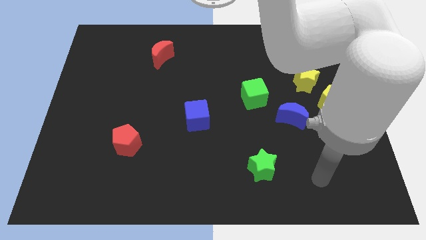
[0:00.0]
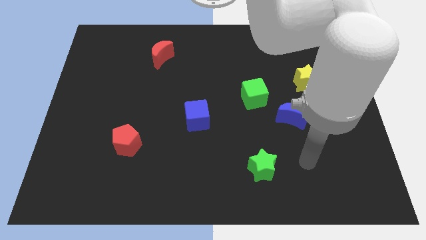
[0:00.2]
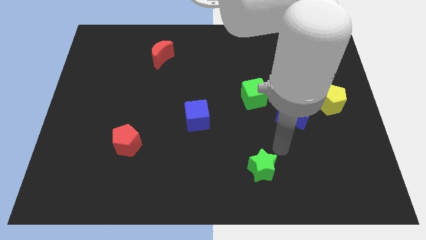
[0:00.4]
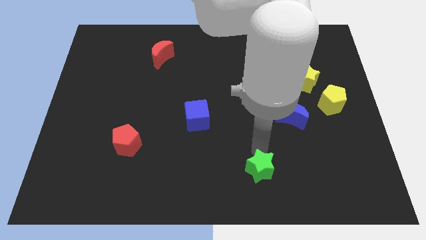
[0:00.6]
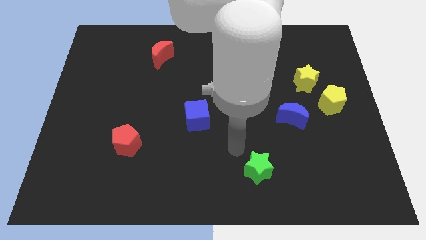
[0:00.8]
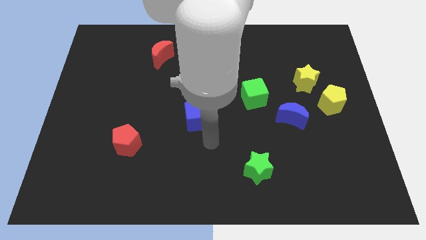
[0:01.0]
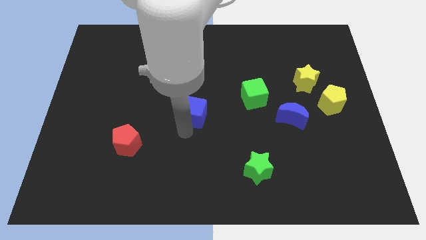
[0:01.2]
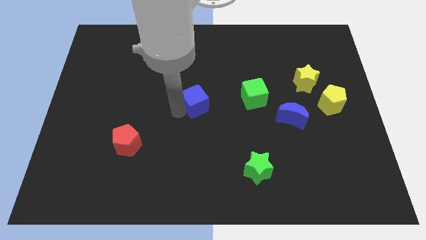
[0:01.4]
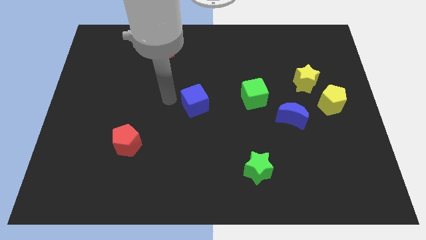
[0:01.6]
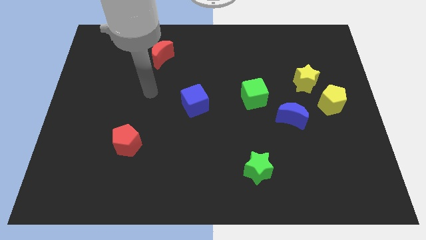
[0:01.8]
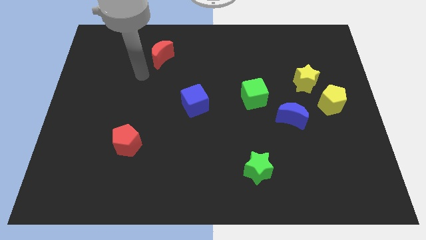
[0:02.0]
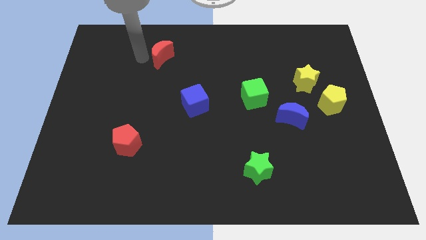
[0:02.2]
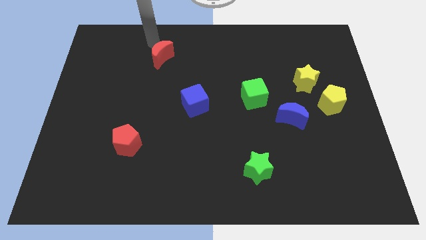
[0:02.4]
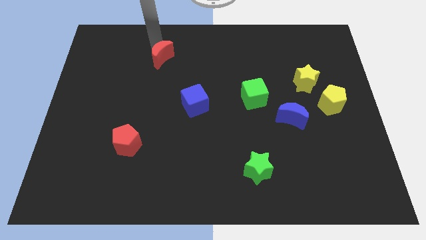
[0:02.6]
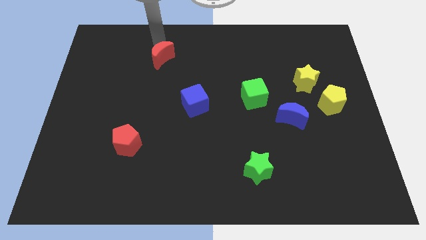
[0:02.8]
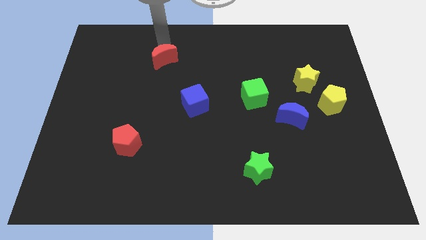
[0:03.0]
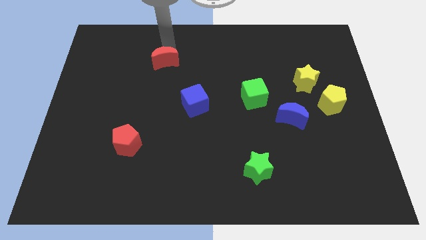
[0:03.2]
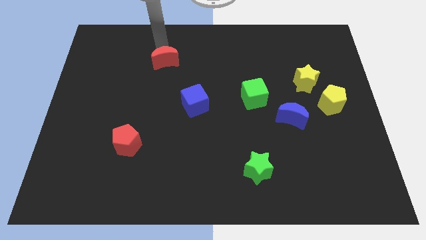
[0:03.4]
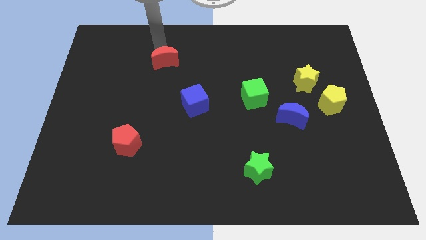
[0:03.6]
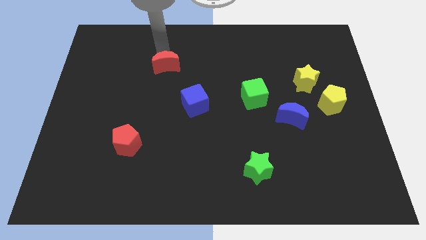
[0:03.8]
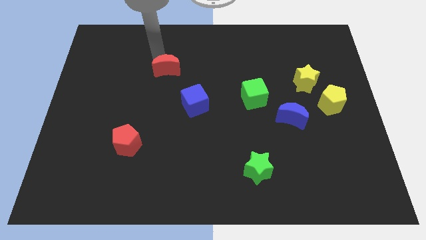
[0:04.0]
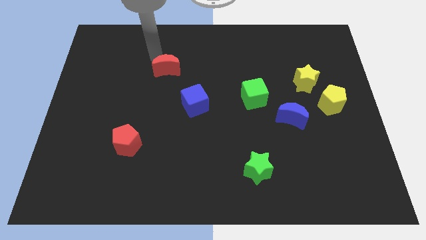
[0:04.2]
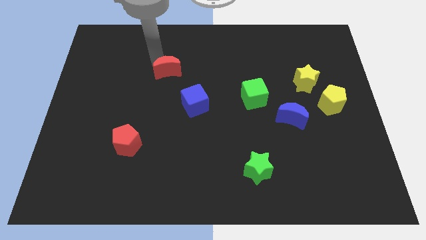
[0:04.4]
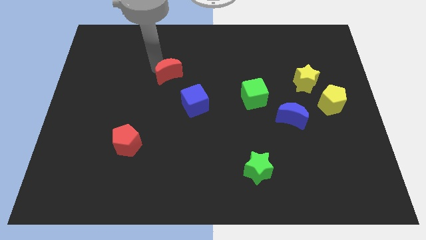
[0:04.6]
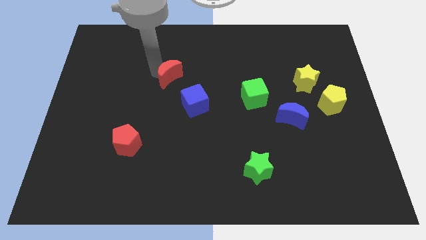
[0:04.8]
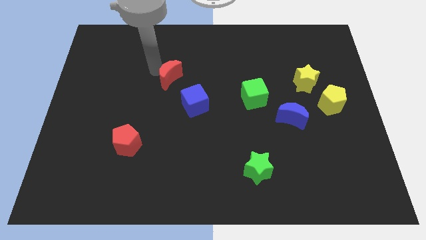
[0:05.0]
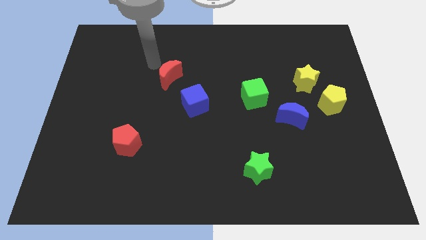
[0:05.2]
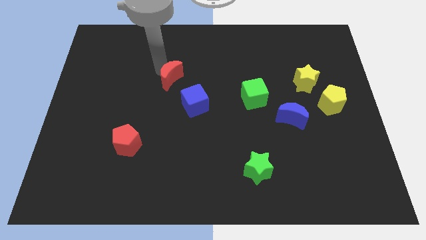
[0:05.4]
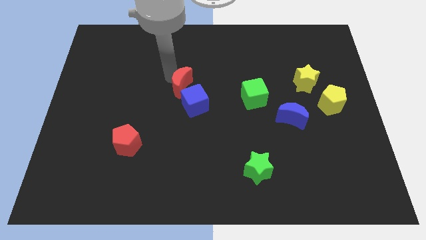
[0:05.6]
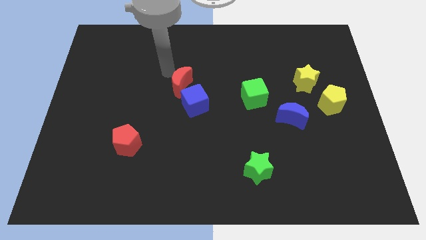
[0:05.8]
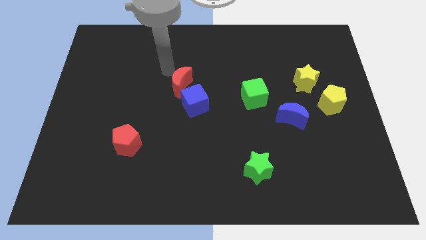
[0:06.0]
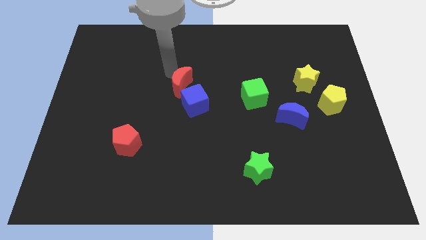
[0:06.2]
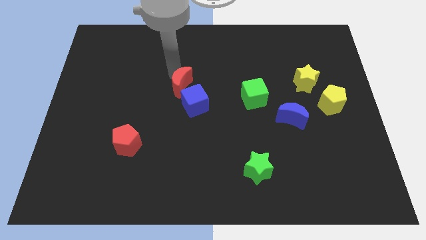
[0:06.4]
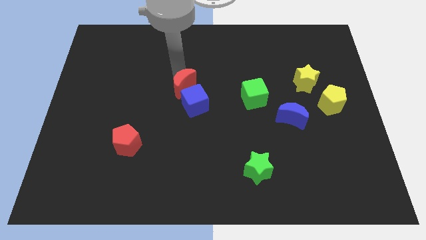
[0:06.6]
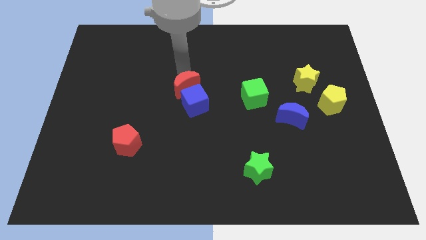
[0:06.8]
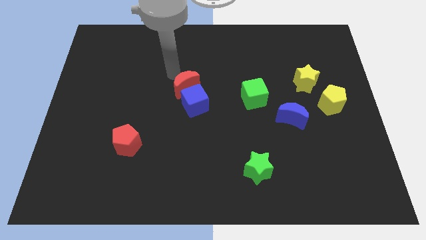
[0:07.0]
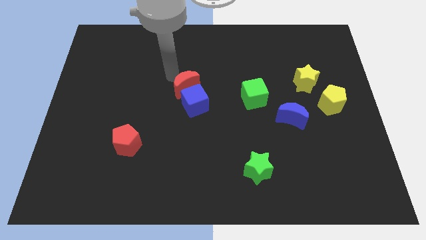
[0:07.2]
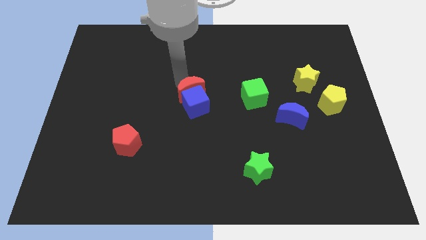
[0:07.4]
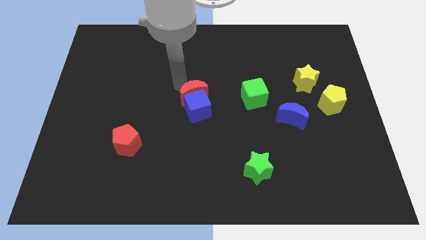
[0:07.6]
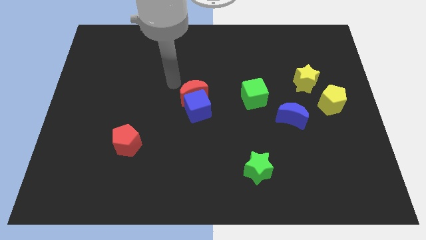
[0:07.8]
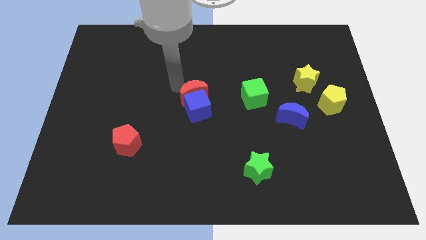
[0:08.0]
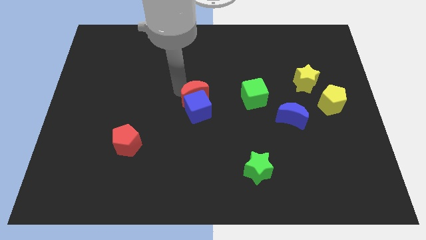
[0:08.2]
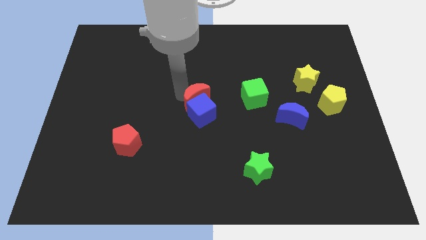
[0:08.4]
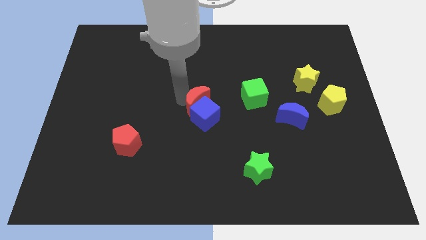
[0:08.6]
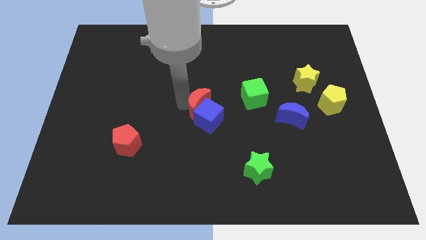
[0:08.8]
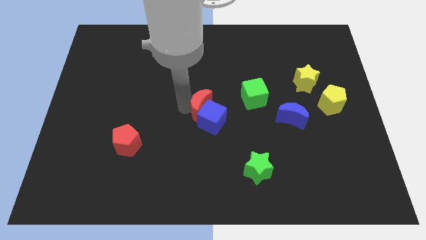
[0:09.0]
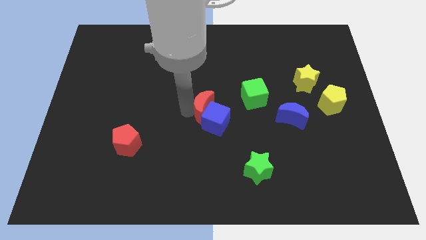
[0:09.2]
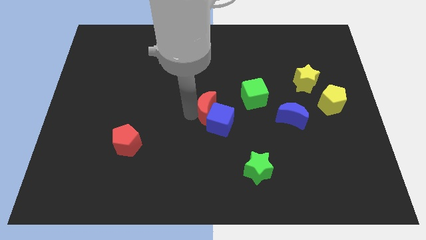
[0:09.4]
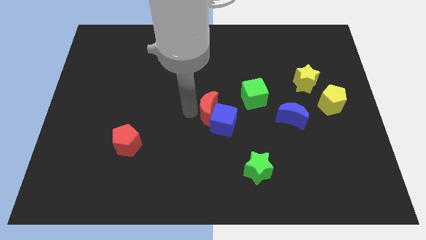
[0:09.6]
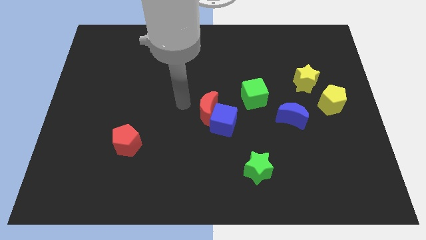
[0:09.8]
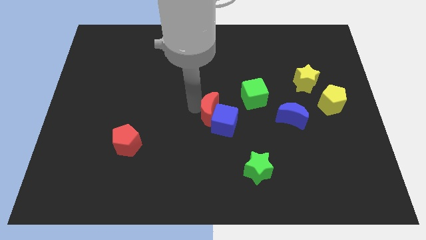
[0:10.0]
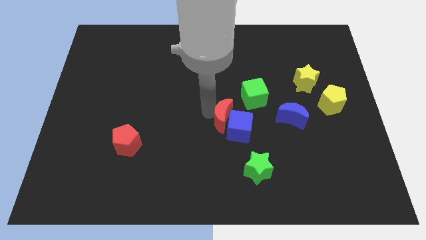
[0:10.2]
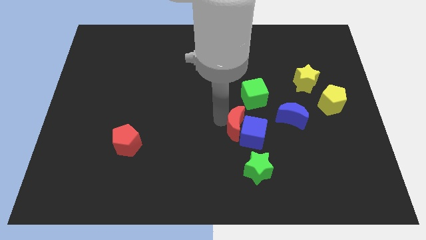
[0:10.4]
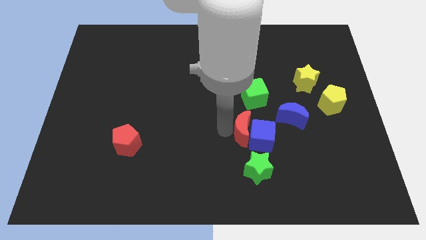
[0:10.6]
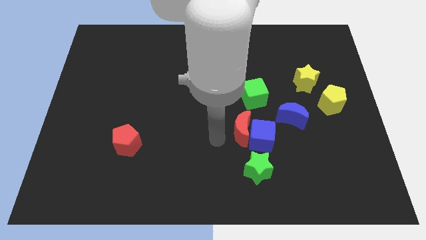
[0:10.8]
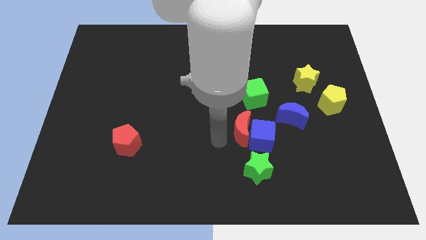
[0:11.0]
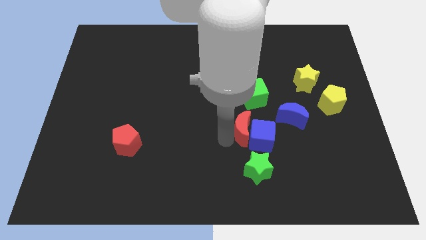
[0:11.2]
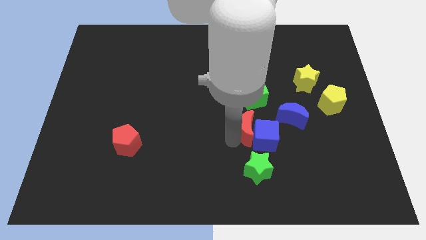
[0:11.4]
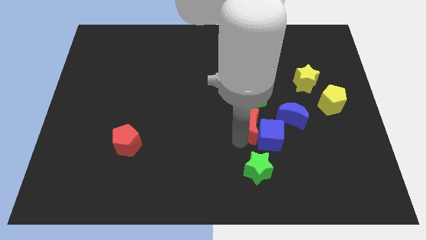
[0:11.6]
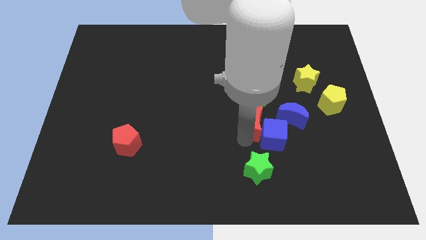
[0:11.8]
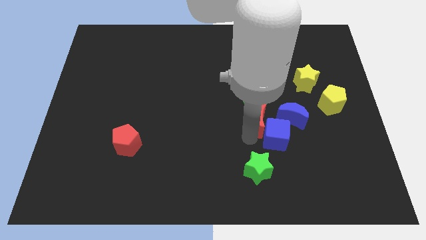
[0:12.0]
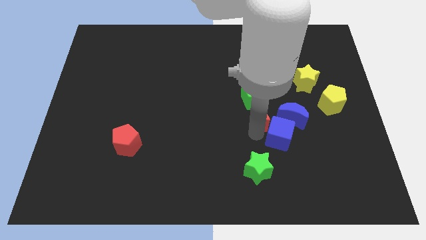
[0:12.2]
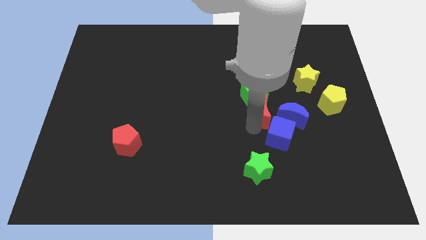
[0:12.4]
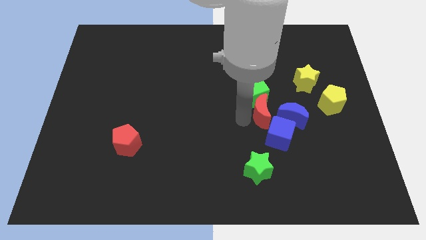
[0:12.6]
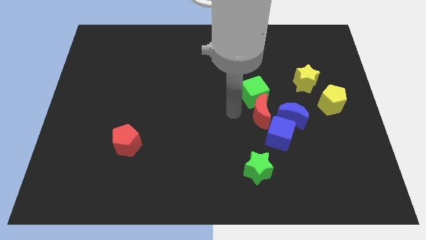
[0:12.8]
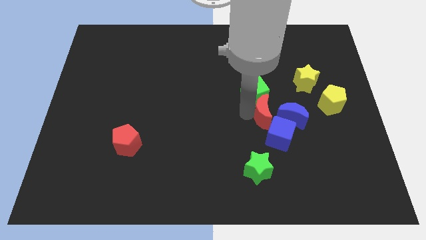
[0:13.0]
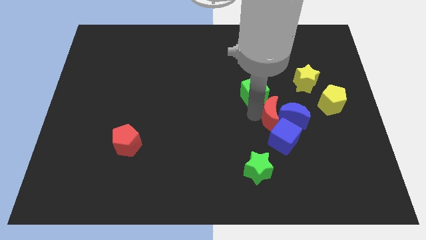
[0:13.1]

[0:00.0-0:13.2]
put the red moon to the blue moon
